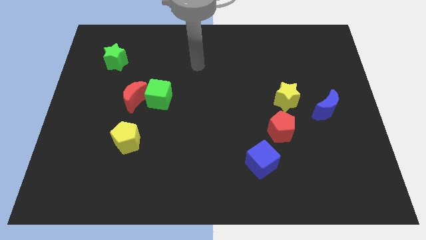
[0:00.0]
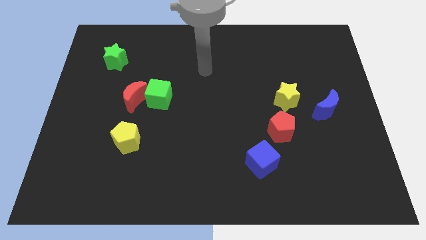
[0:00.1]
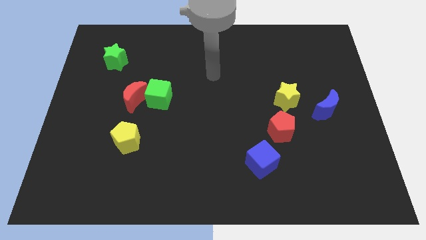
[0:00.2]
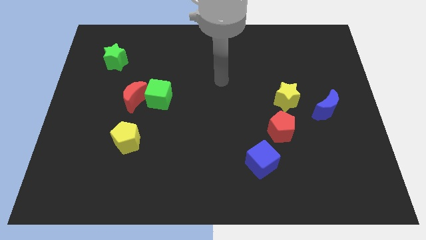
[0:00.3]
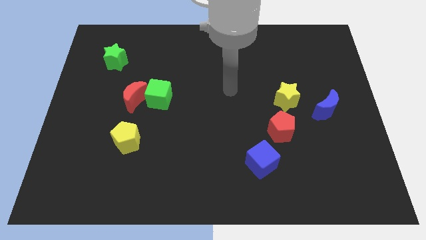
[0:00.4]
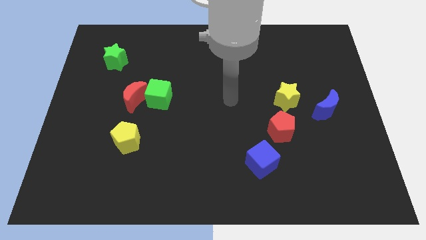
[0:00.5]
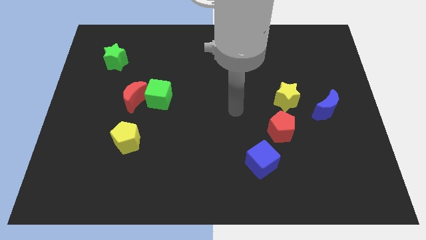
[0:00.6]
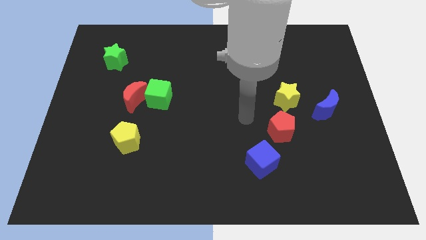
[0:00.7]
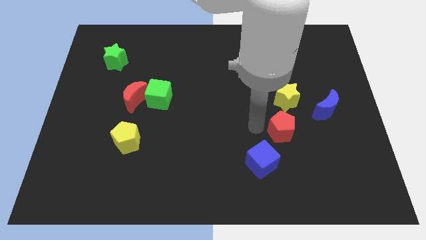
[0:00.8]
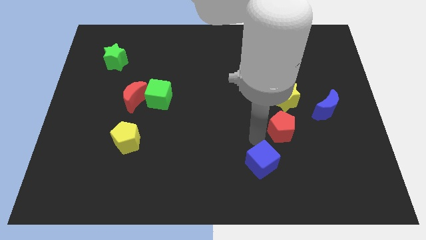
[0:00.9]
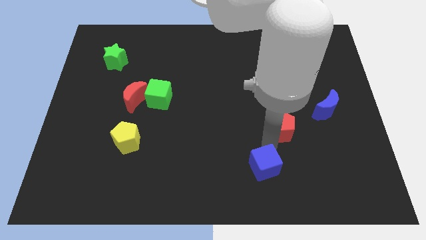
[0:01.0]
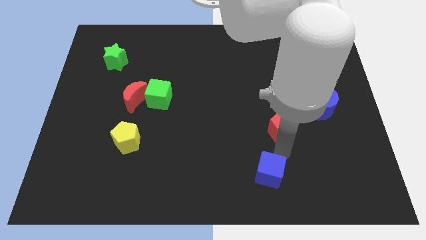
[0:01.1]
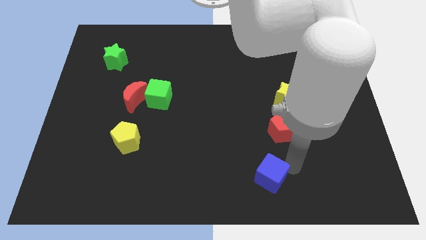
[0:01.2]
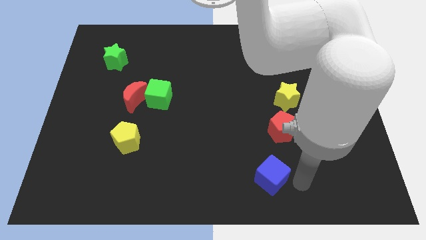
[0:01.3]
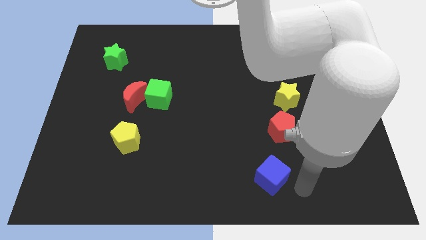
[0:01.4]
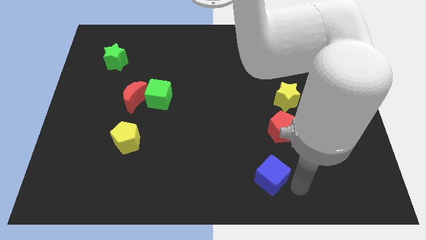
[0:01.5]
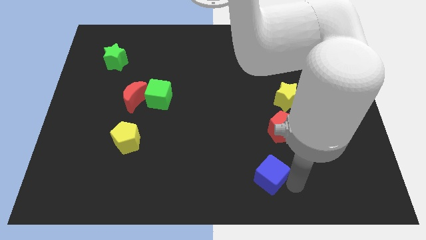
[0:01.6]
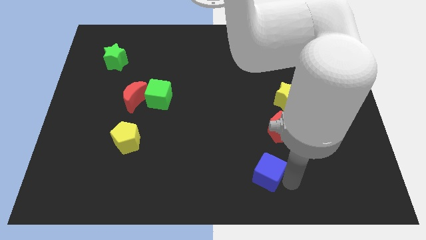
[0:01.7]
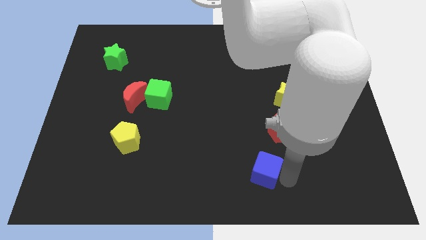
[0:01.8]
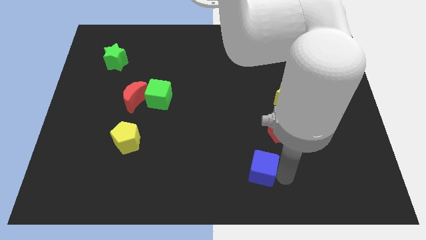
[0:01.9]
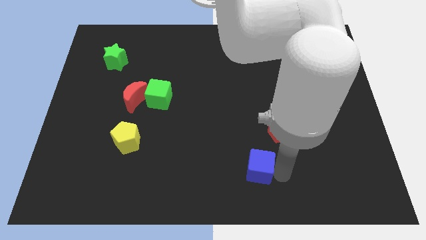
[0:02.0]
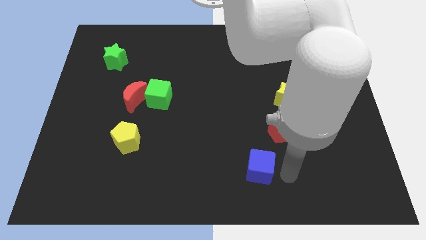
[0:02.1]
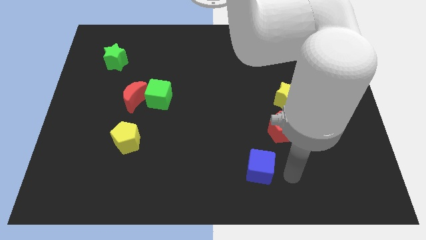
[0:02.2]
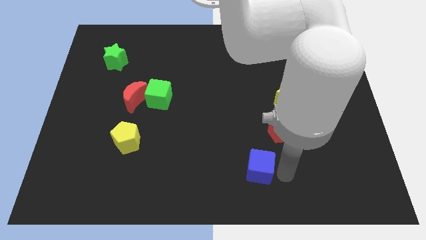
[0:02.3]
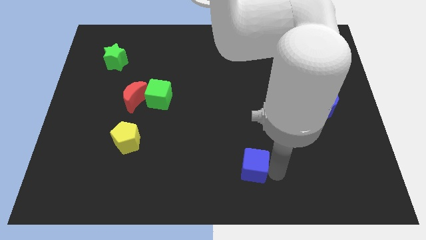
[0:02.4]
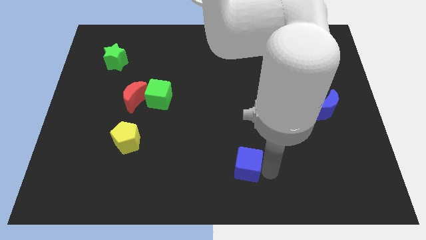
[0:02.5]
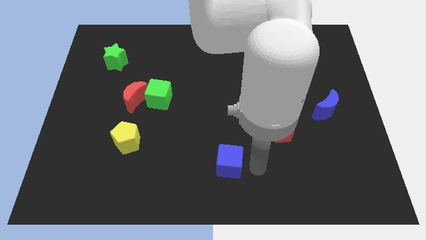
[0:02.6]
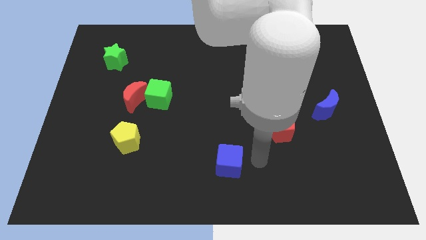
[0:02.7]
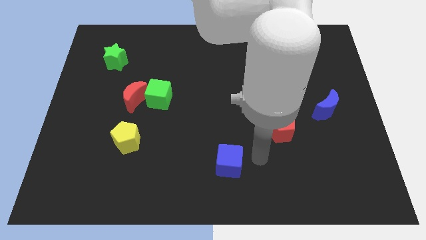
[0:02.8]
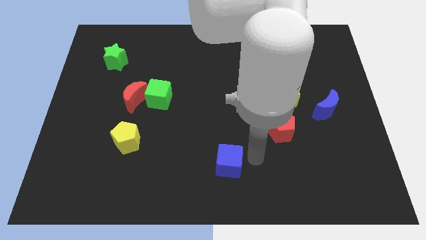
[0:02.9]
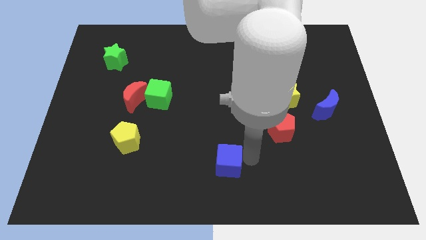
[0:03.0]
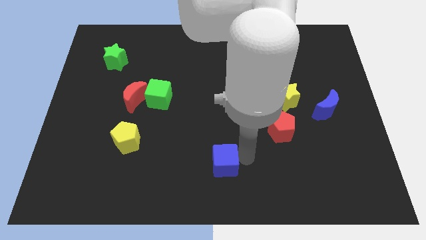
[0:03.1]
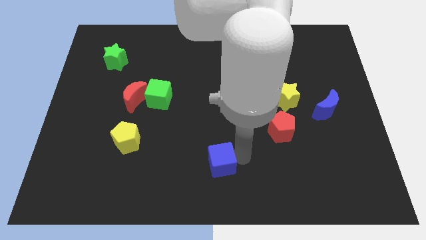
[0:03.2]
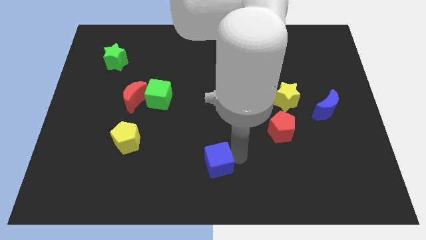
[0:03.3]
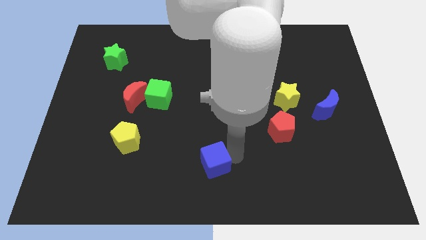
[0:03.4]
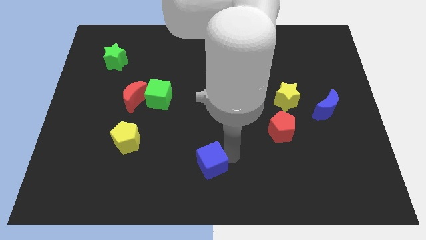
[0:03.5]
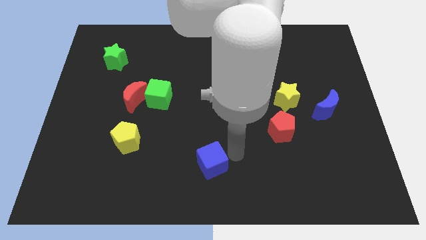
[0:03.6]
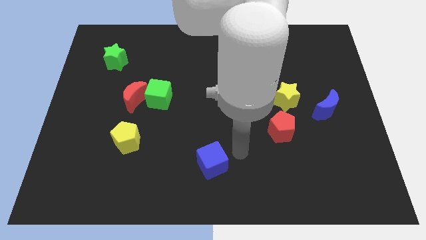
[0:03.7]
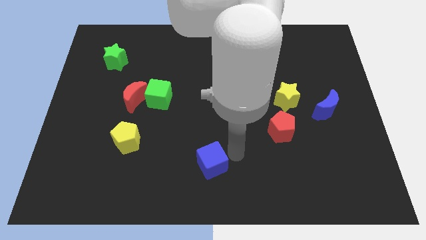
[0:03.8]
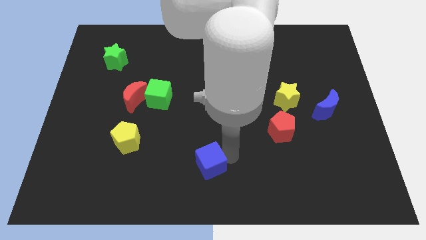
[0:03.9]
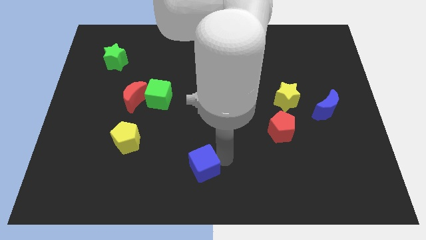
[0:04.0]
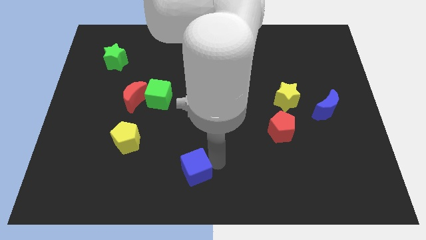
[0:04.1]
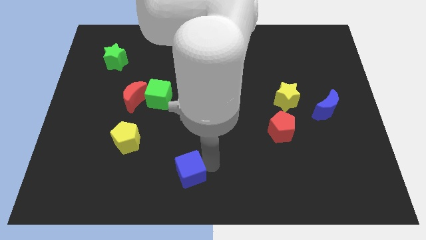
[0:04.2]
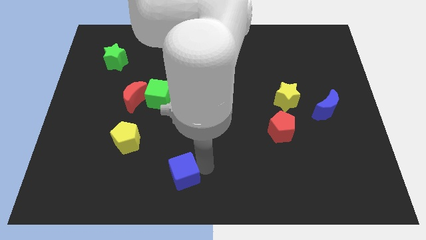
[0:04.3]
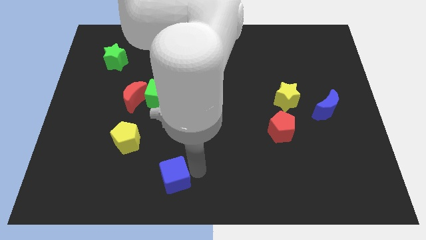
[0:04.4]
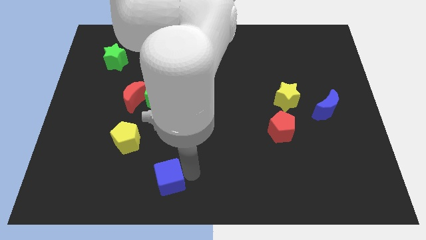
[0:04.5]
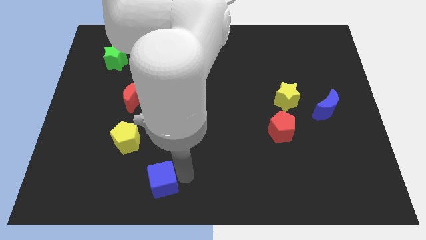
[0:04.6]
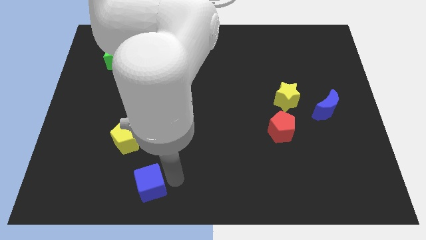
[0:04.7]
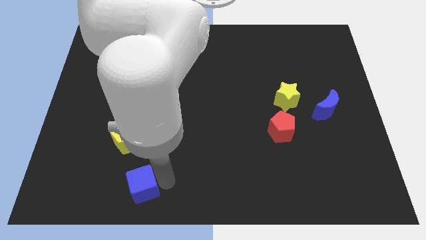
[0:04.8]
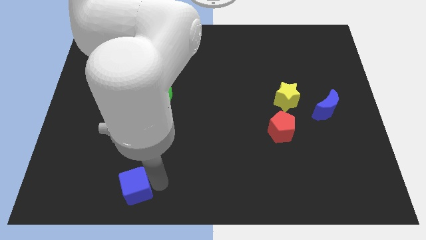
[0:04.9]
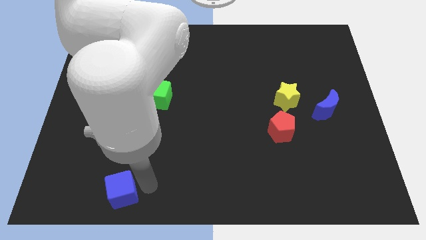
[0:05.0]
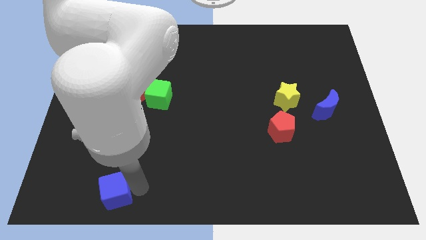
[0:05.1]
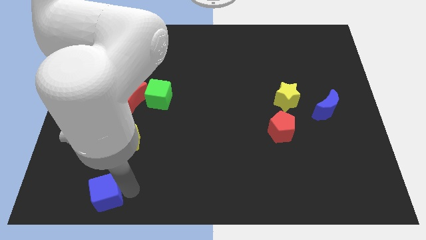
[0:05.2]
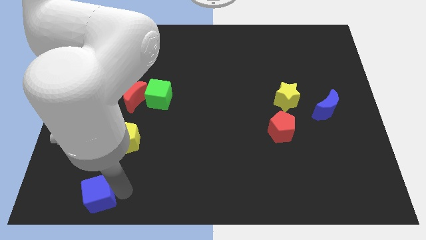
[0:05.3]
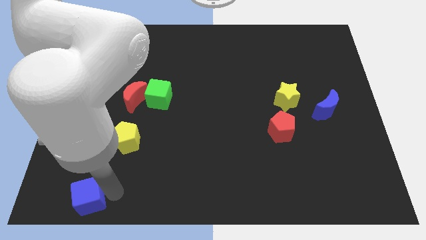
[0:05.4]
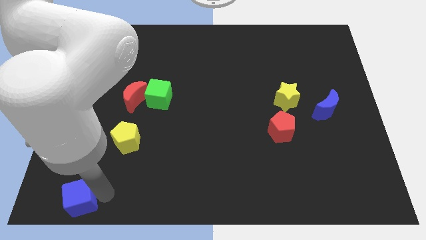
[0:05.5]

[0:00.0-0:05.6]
move the blue cube to the bottom left of the board
